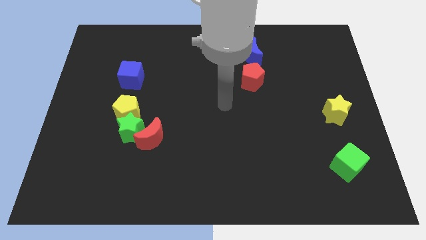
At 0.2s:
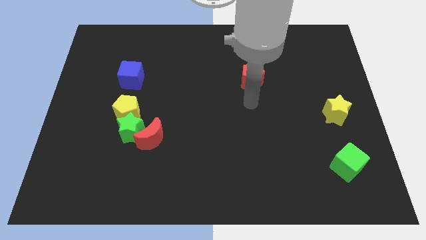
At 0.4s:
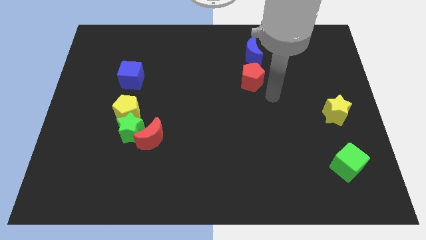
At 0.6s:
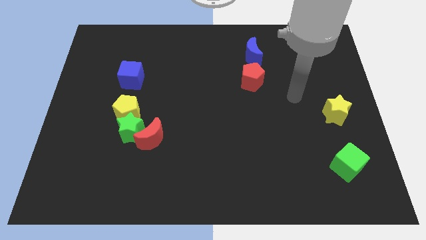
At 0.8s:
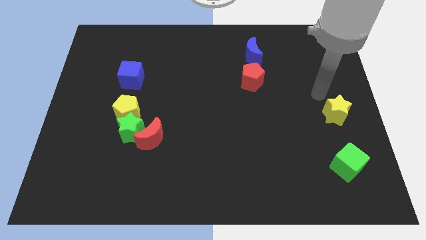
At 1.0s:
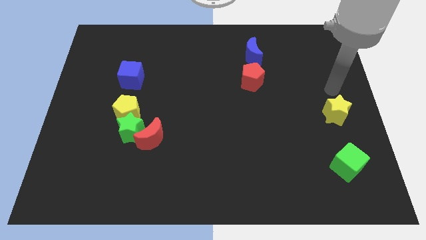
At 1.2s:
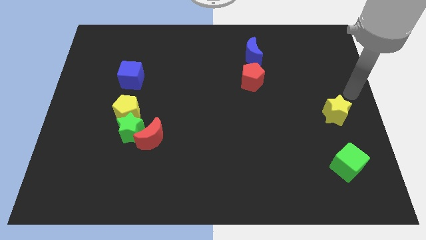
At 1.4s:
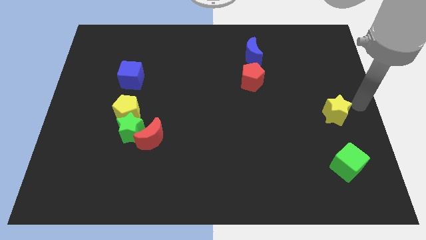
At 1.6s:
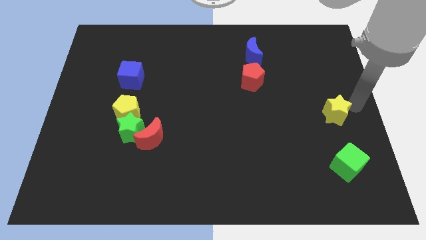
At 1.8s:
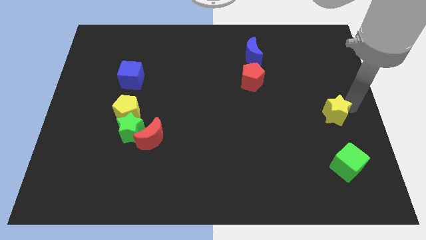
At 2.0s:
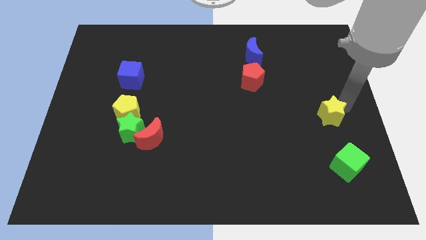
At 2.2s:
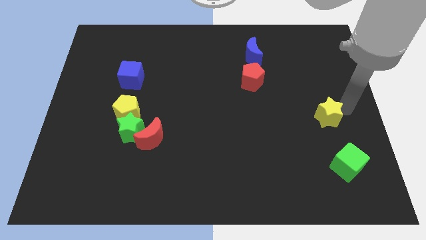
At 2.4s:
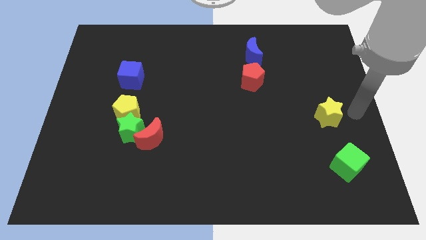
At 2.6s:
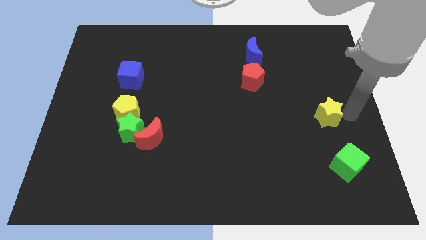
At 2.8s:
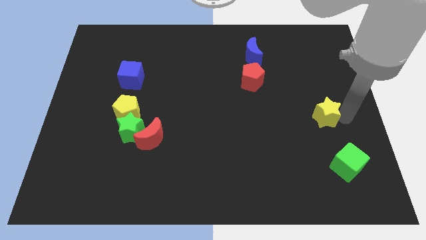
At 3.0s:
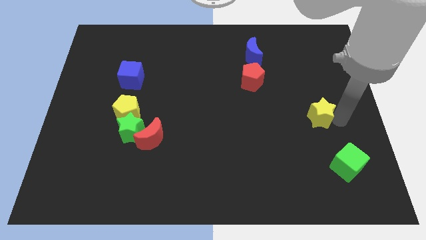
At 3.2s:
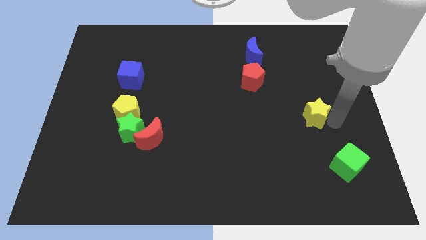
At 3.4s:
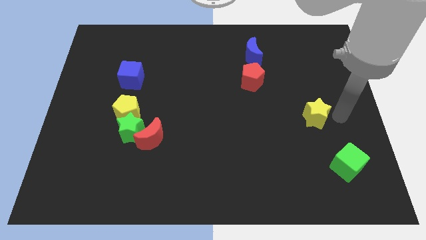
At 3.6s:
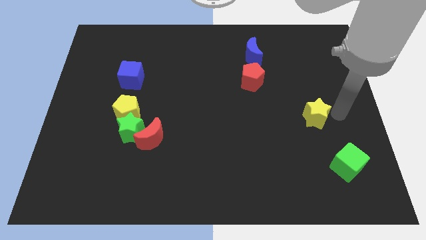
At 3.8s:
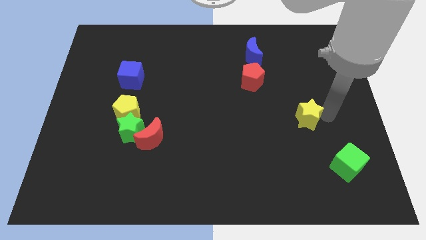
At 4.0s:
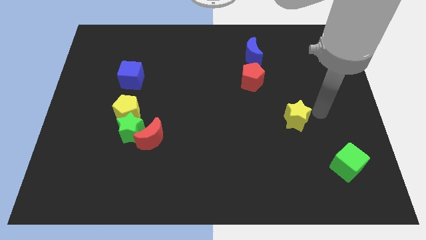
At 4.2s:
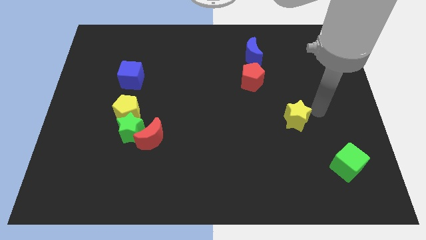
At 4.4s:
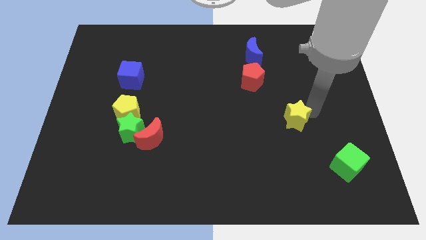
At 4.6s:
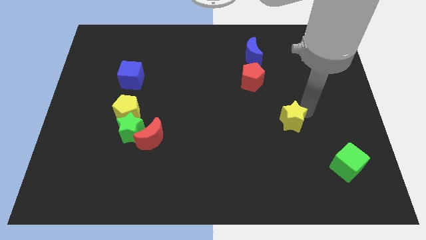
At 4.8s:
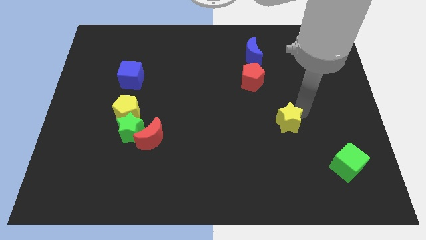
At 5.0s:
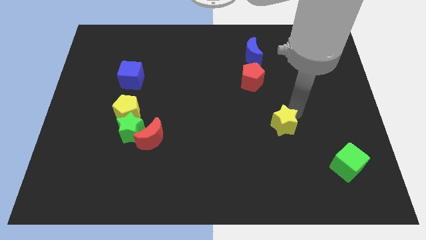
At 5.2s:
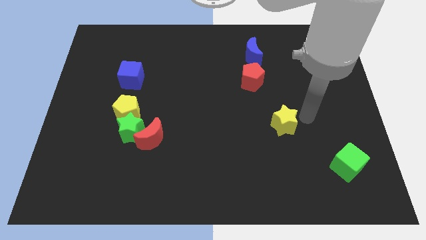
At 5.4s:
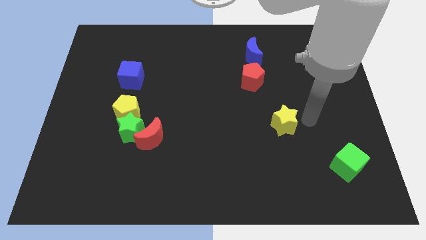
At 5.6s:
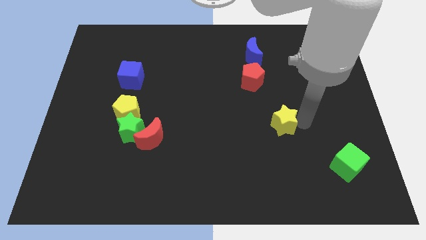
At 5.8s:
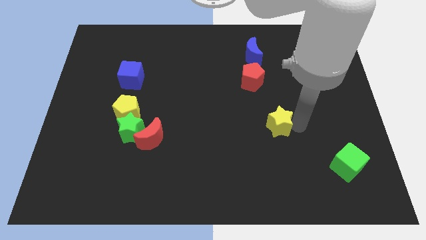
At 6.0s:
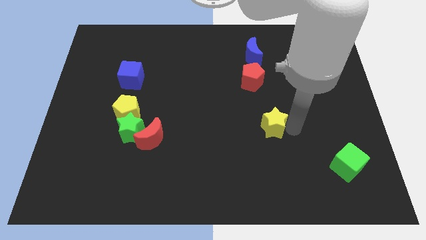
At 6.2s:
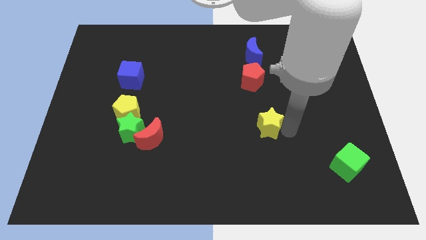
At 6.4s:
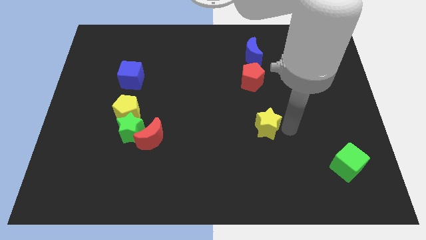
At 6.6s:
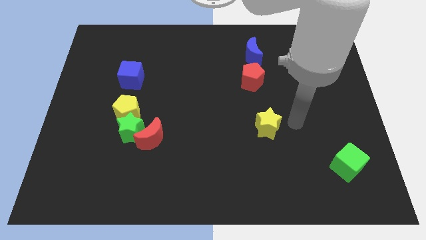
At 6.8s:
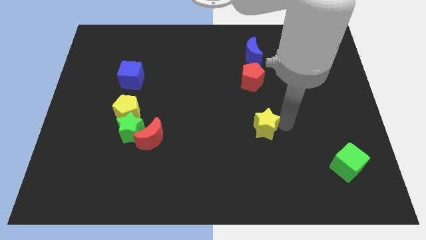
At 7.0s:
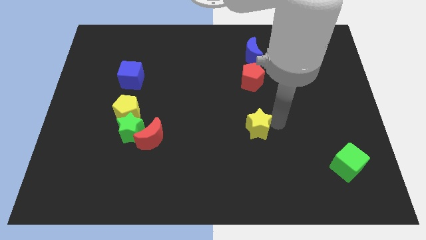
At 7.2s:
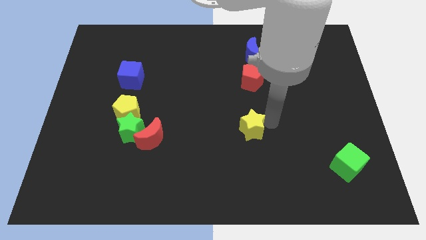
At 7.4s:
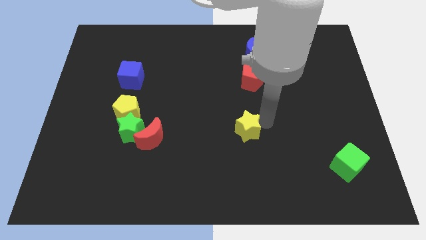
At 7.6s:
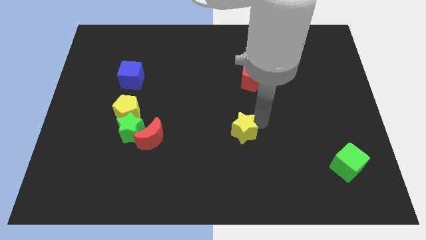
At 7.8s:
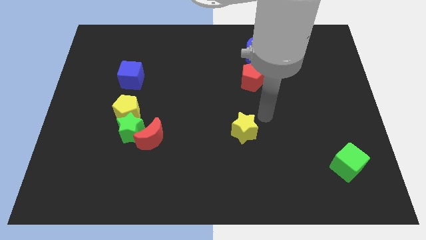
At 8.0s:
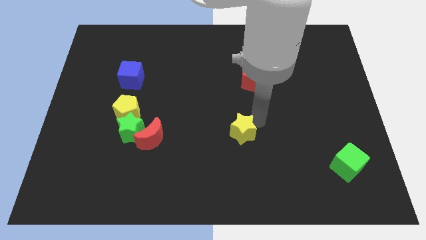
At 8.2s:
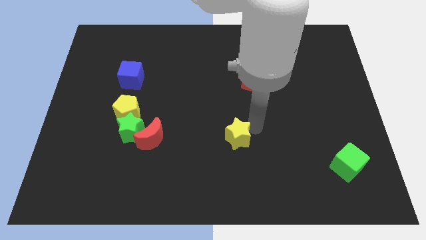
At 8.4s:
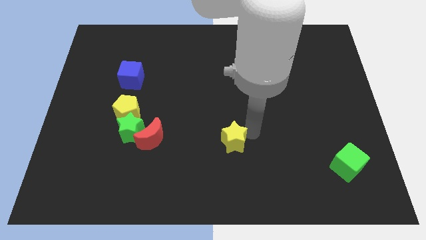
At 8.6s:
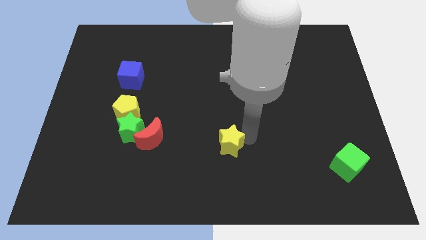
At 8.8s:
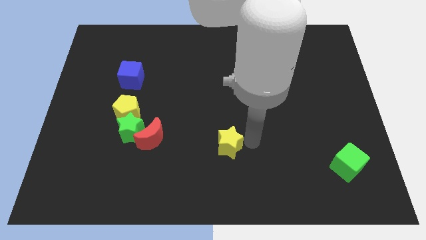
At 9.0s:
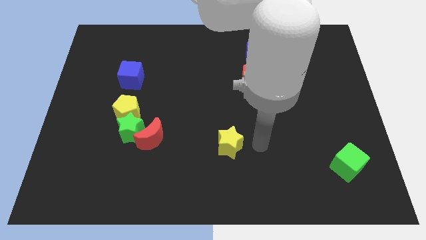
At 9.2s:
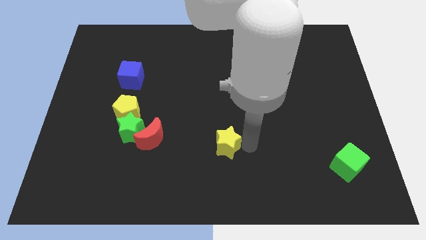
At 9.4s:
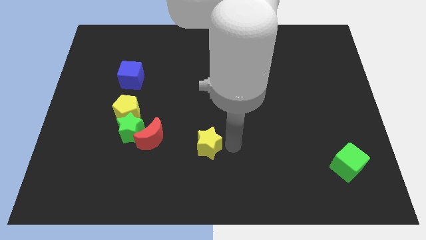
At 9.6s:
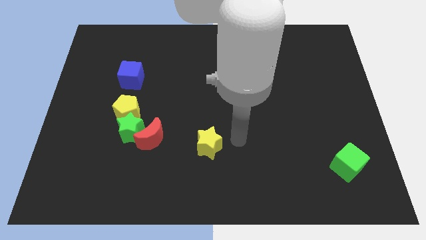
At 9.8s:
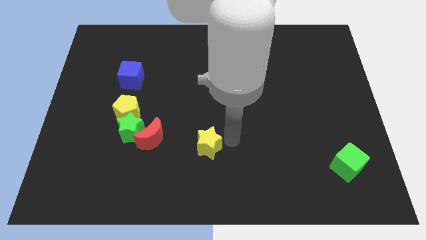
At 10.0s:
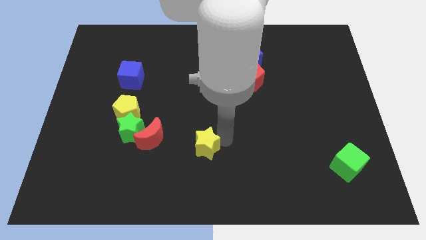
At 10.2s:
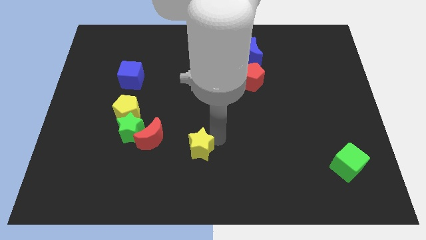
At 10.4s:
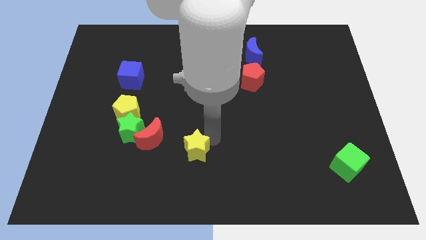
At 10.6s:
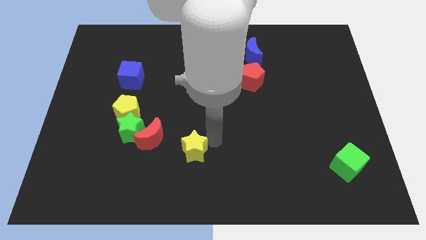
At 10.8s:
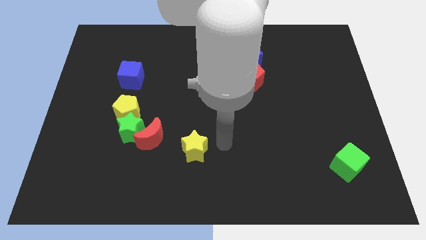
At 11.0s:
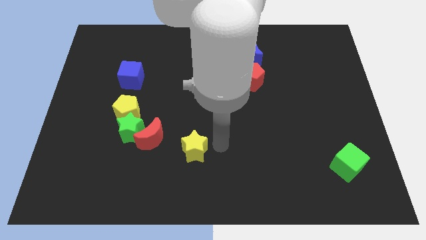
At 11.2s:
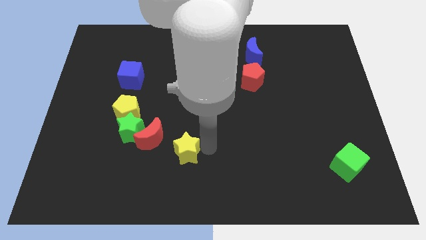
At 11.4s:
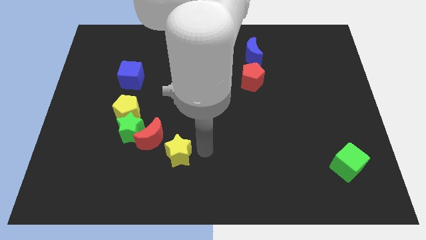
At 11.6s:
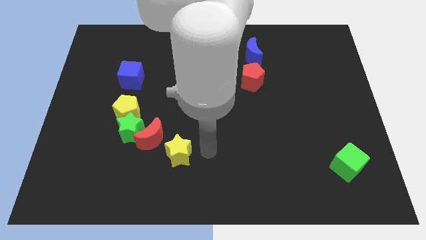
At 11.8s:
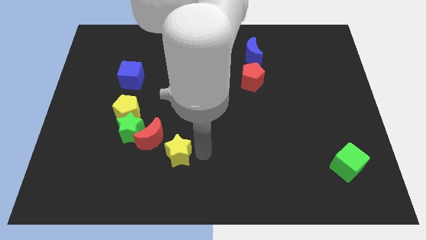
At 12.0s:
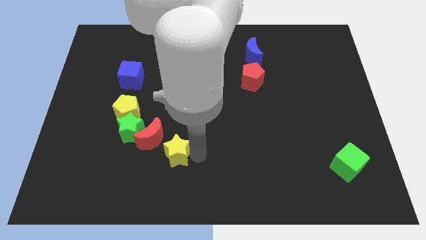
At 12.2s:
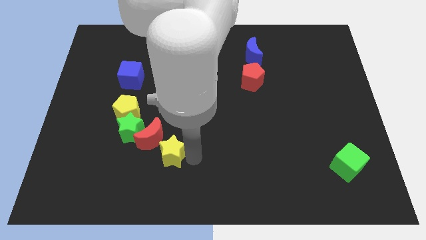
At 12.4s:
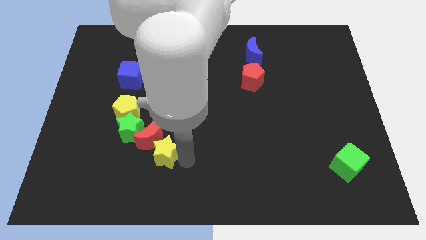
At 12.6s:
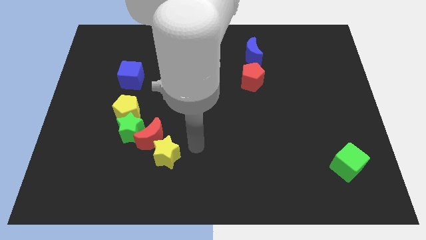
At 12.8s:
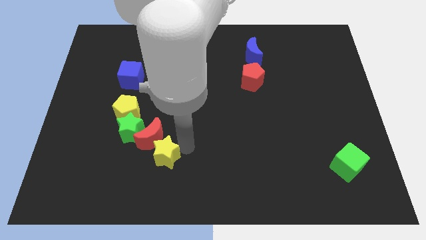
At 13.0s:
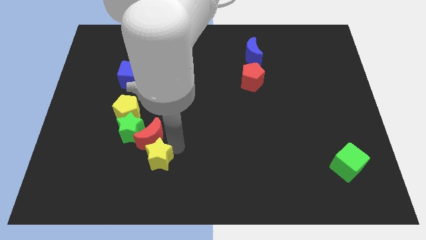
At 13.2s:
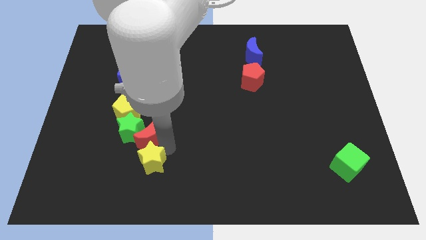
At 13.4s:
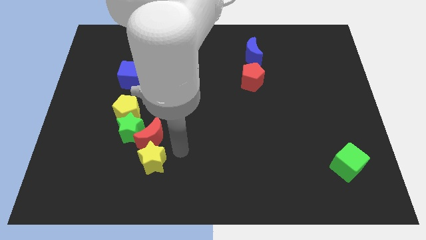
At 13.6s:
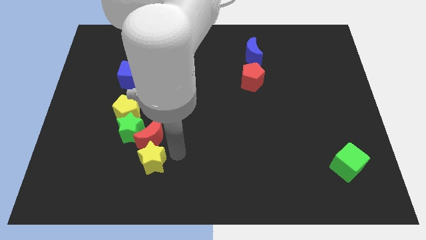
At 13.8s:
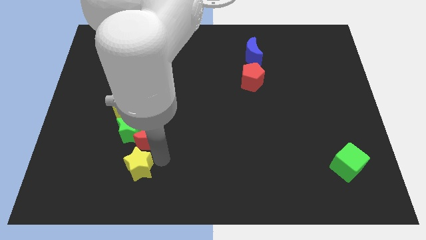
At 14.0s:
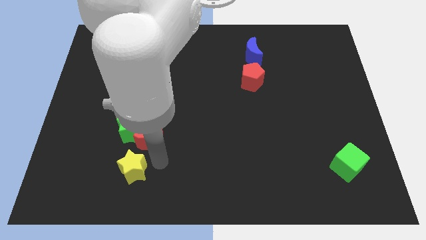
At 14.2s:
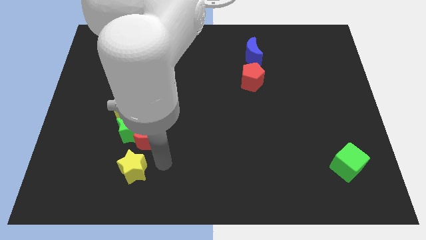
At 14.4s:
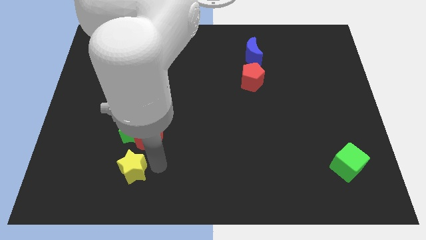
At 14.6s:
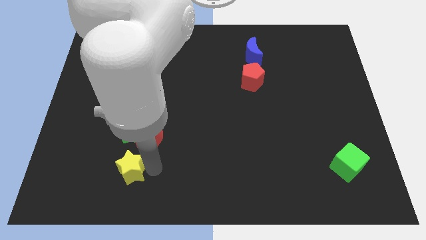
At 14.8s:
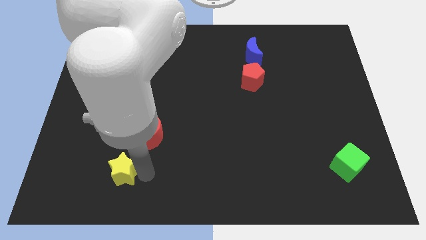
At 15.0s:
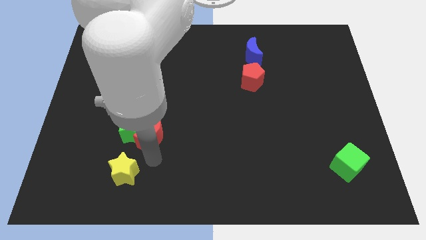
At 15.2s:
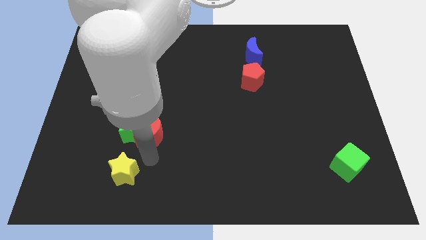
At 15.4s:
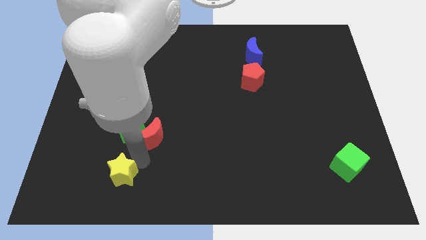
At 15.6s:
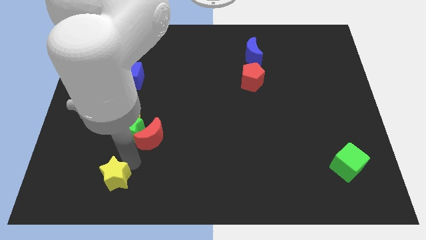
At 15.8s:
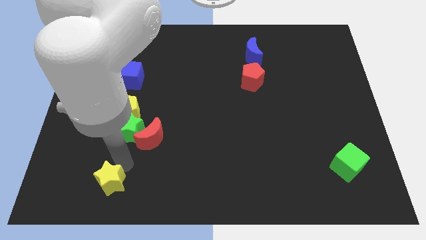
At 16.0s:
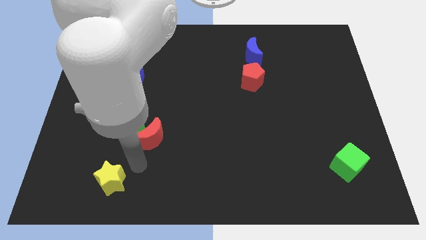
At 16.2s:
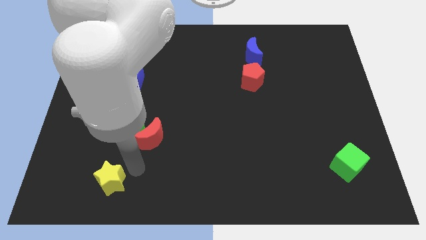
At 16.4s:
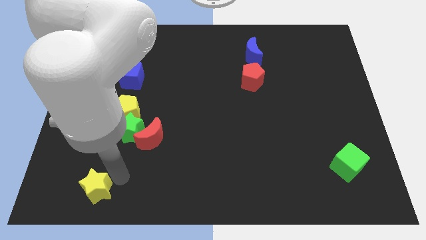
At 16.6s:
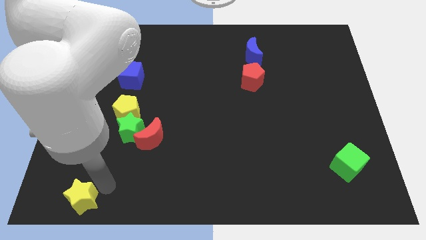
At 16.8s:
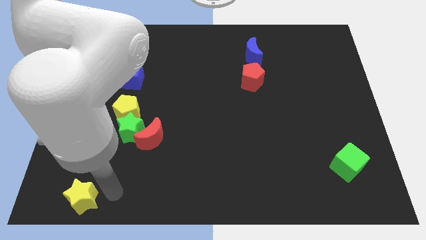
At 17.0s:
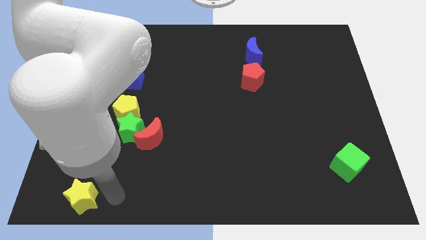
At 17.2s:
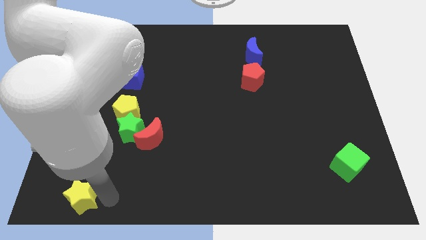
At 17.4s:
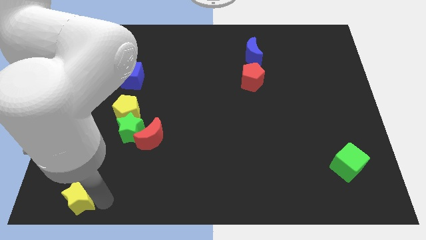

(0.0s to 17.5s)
put the yellow star to the bottom left corner
